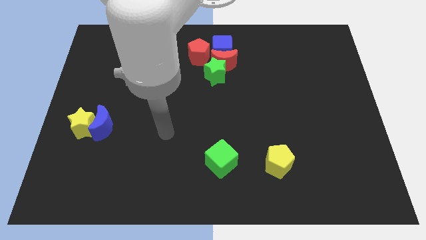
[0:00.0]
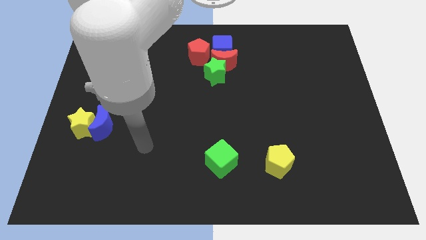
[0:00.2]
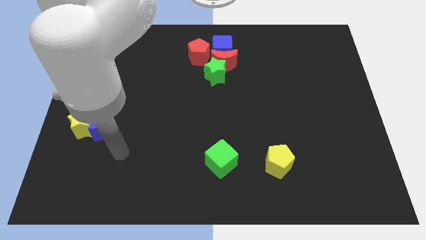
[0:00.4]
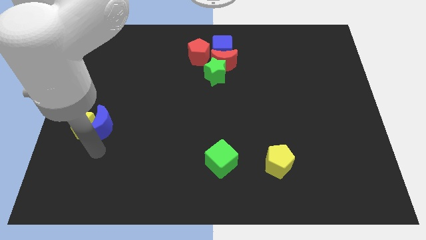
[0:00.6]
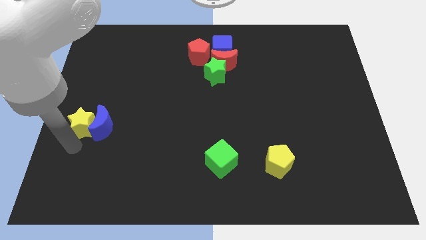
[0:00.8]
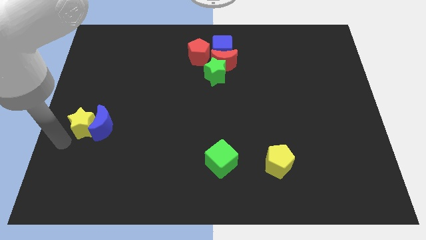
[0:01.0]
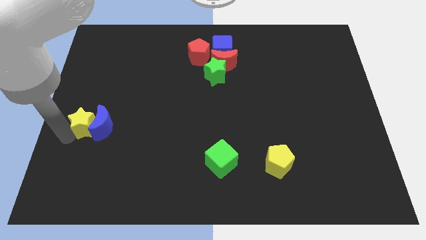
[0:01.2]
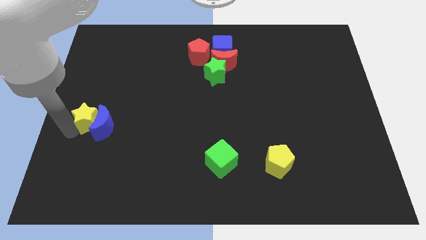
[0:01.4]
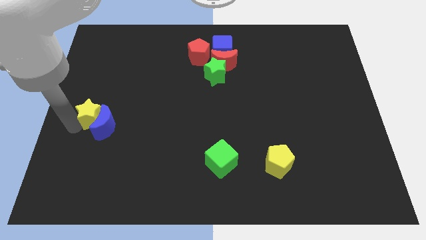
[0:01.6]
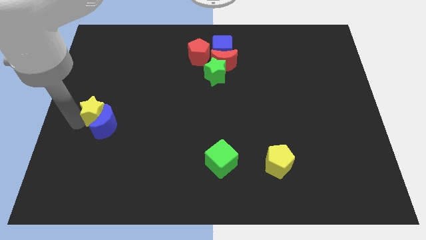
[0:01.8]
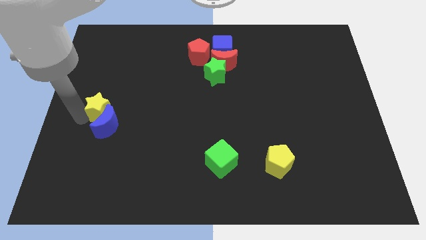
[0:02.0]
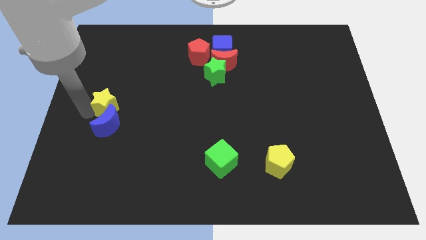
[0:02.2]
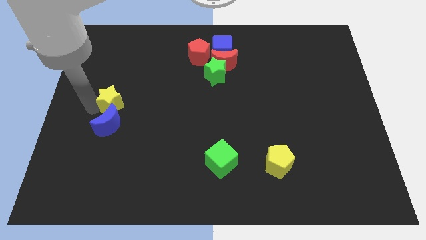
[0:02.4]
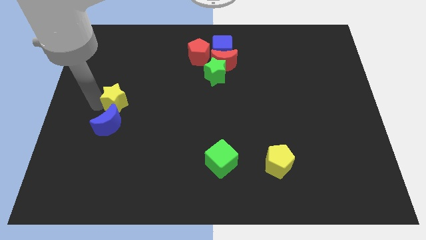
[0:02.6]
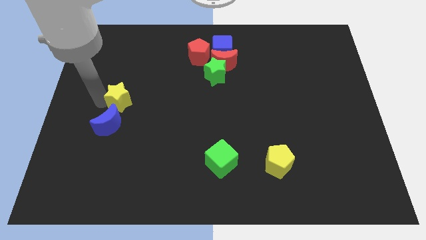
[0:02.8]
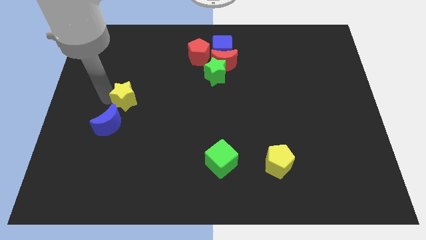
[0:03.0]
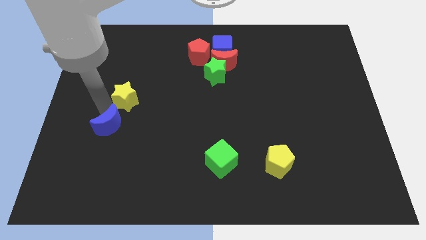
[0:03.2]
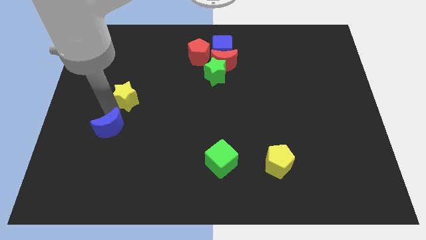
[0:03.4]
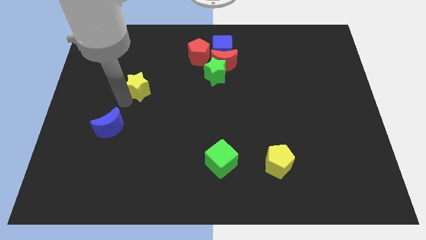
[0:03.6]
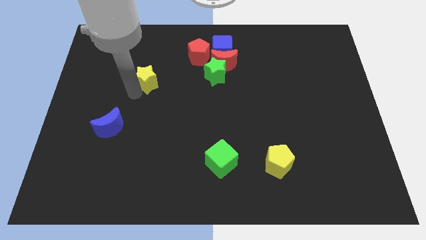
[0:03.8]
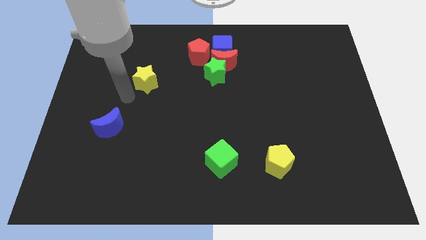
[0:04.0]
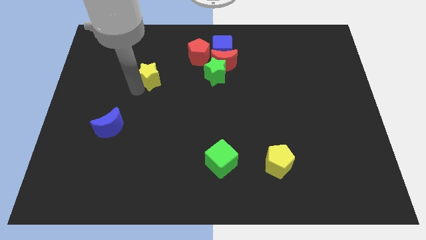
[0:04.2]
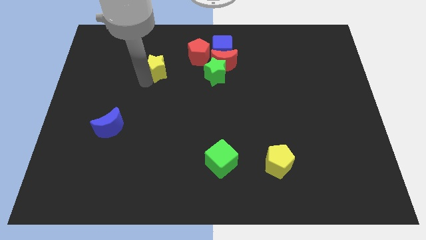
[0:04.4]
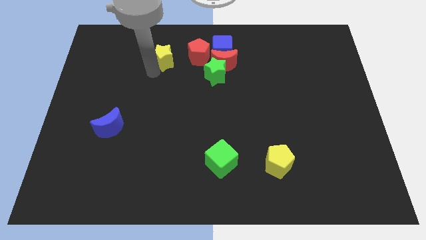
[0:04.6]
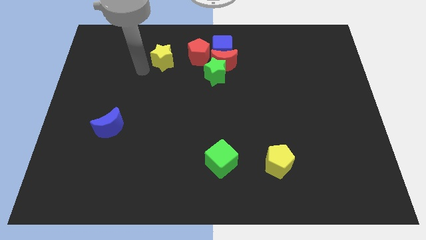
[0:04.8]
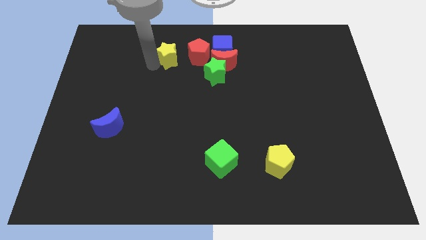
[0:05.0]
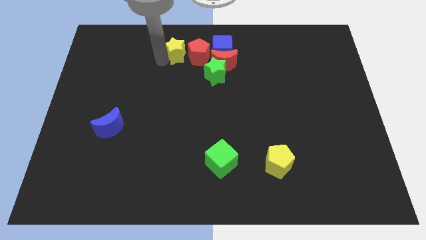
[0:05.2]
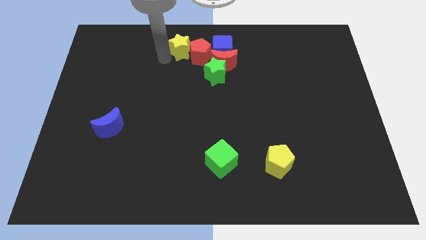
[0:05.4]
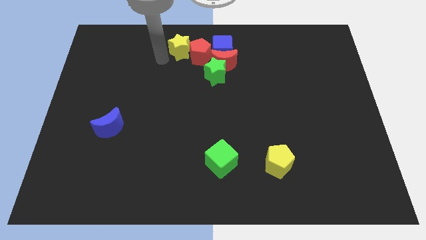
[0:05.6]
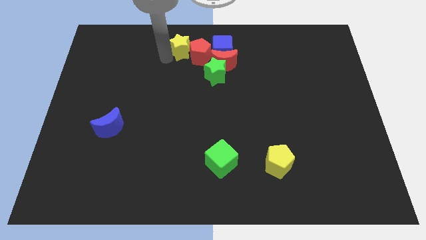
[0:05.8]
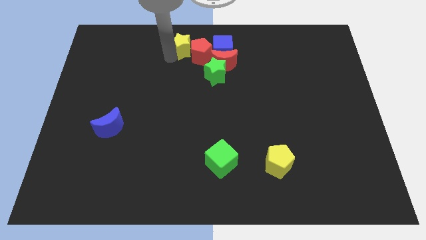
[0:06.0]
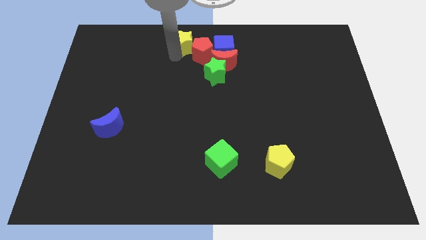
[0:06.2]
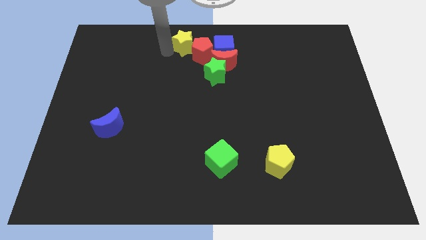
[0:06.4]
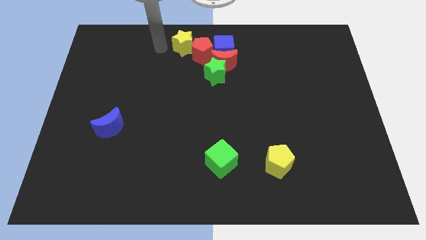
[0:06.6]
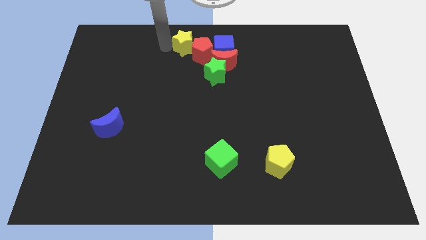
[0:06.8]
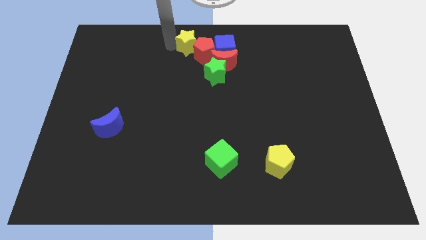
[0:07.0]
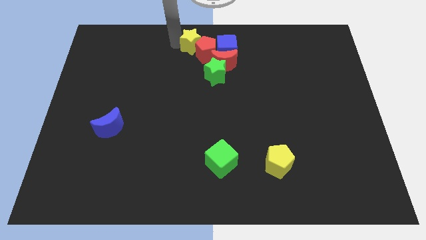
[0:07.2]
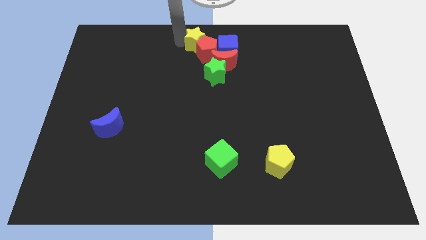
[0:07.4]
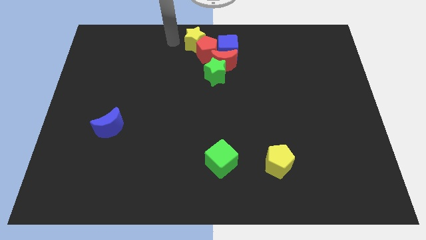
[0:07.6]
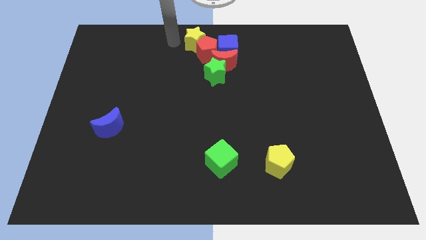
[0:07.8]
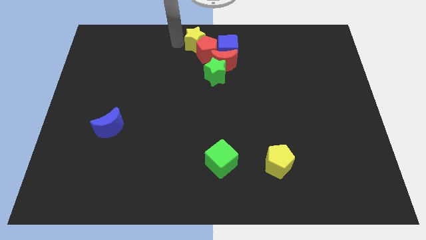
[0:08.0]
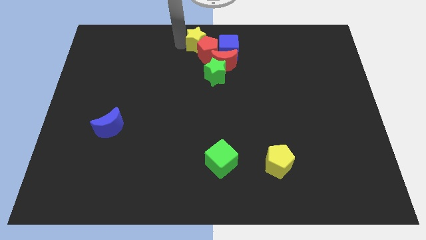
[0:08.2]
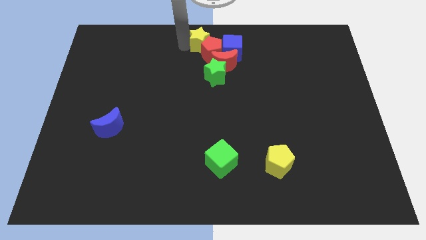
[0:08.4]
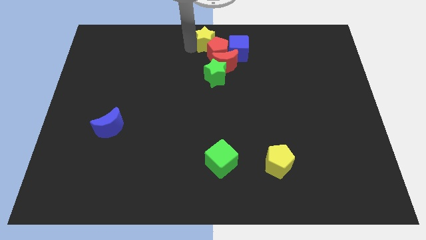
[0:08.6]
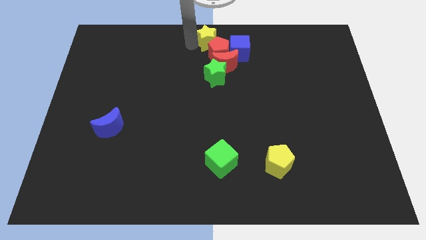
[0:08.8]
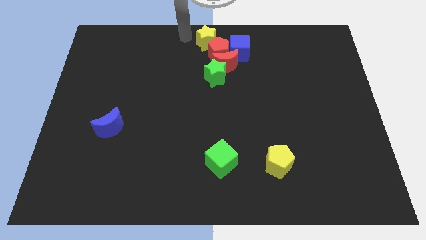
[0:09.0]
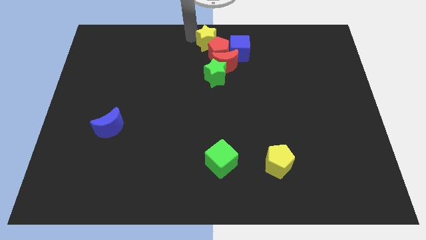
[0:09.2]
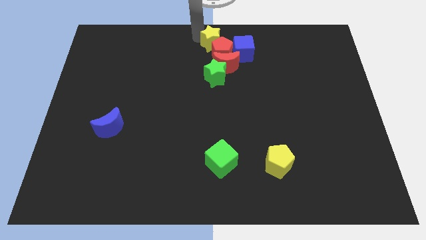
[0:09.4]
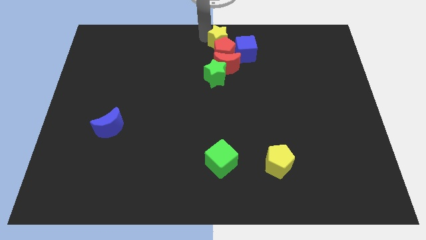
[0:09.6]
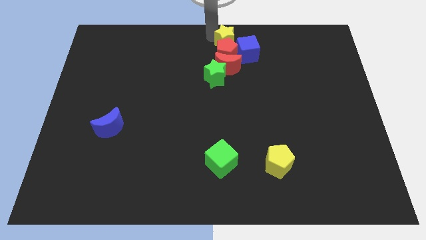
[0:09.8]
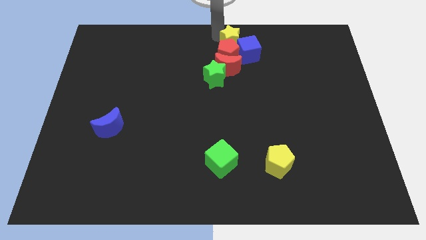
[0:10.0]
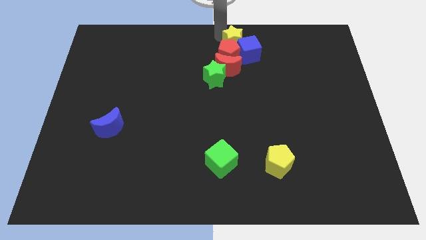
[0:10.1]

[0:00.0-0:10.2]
push the yellow star towards the blue cube

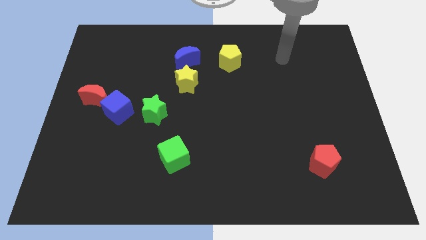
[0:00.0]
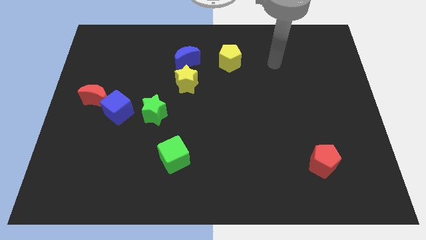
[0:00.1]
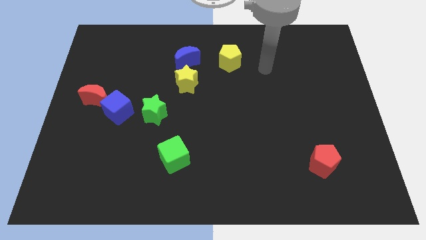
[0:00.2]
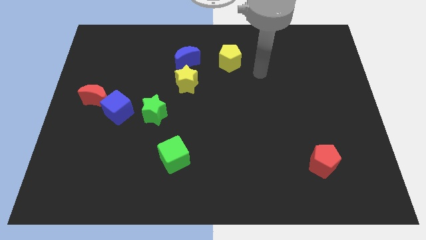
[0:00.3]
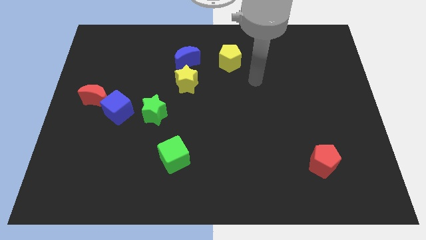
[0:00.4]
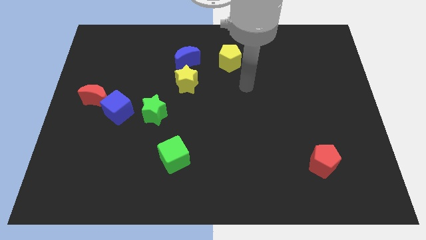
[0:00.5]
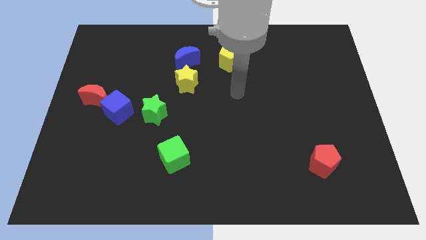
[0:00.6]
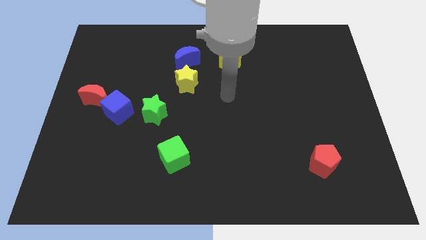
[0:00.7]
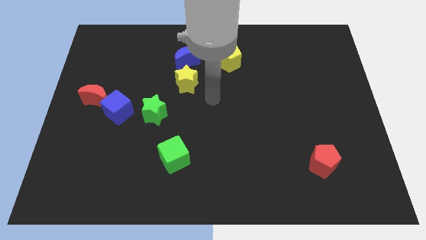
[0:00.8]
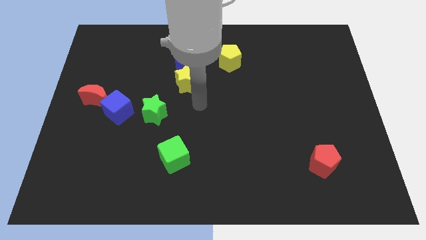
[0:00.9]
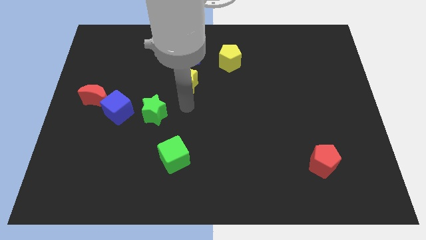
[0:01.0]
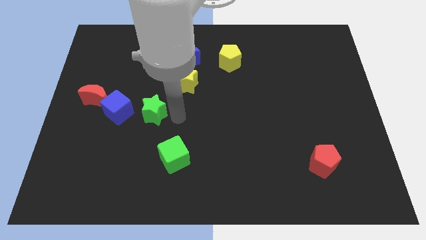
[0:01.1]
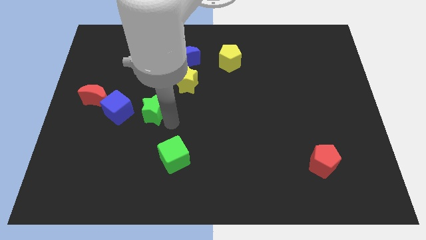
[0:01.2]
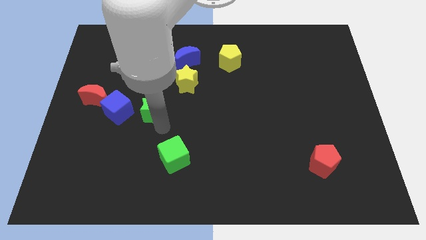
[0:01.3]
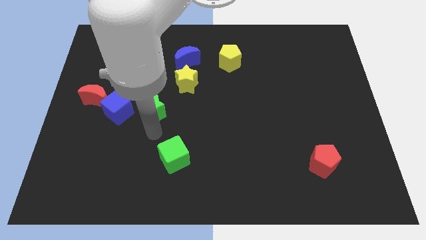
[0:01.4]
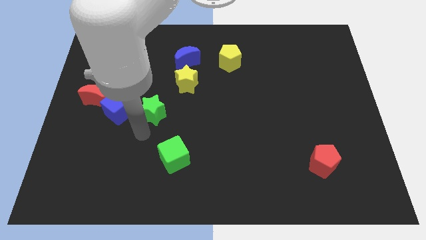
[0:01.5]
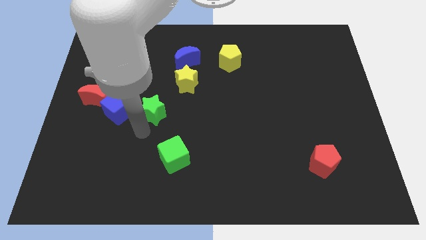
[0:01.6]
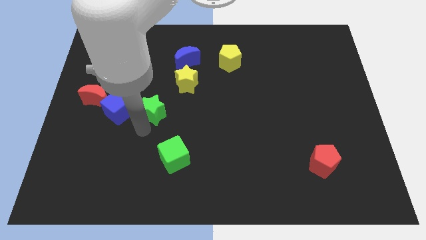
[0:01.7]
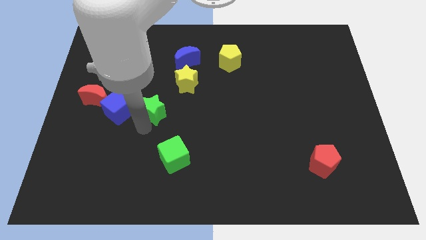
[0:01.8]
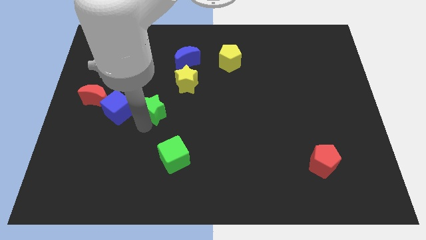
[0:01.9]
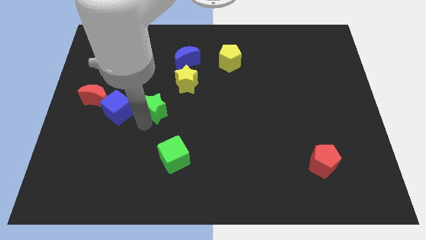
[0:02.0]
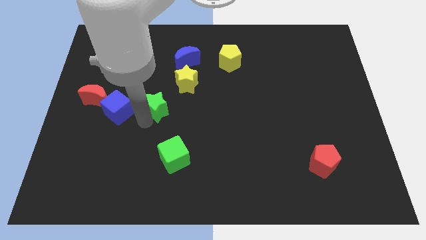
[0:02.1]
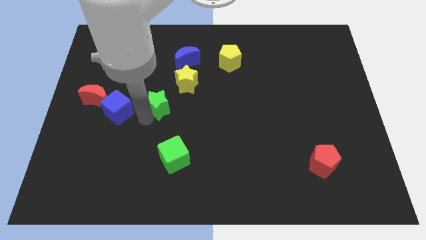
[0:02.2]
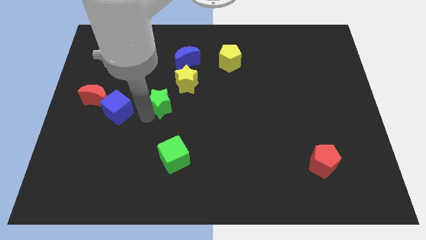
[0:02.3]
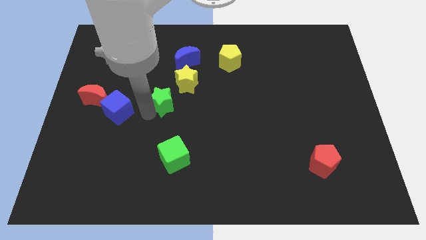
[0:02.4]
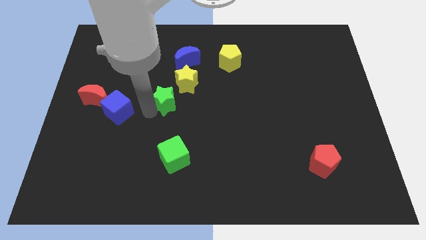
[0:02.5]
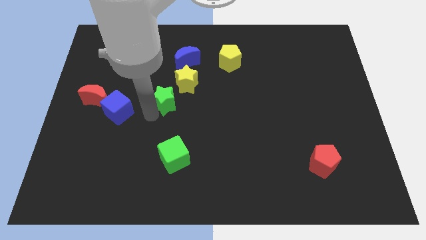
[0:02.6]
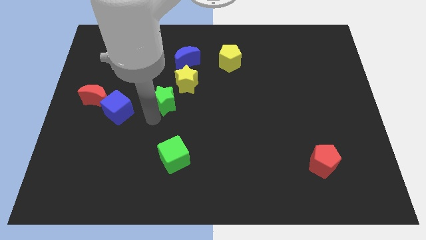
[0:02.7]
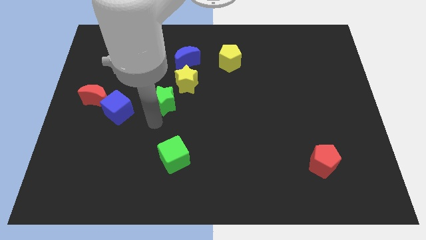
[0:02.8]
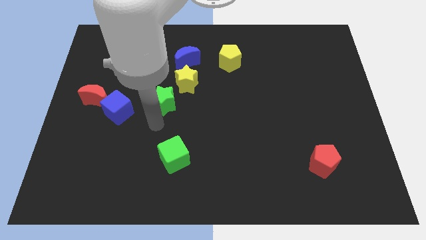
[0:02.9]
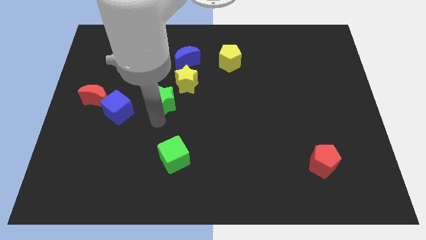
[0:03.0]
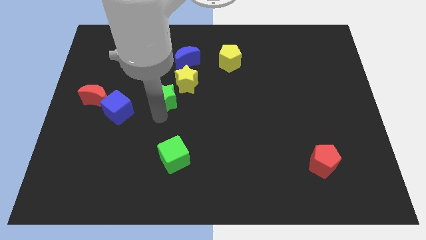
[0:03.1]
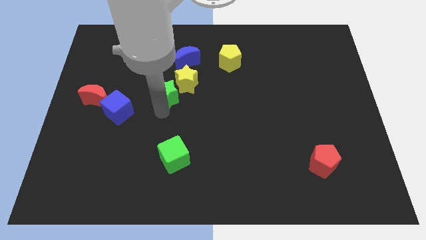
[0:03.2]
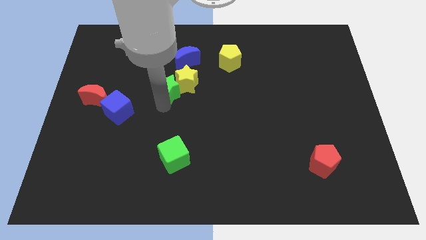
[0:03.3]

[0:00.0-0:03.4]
put the green star to the yellow star
